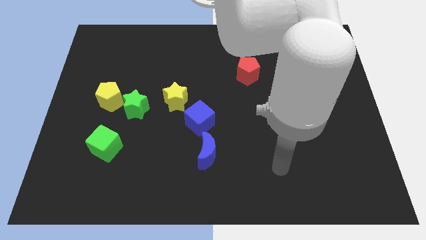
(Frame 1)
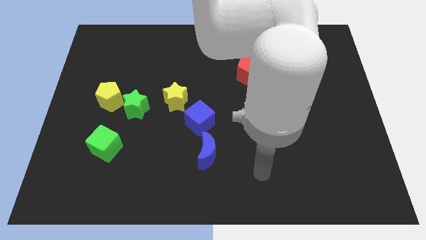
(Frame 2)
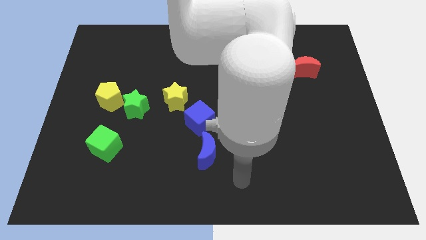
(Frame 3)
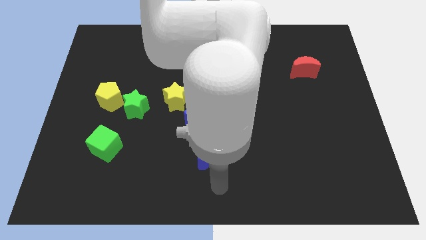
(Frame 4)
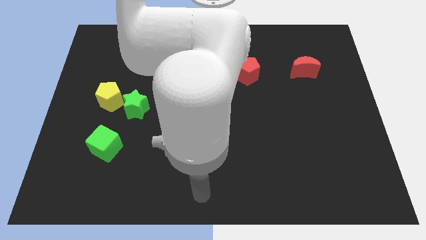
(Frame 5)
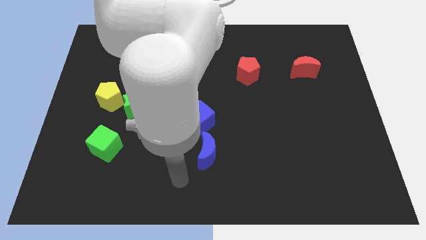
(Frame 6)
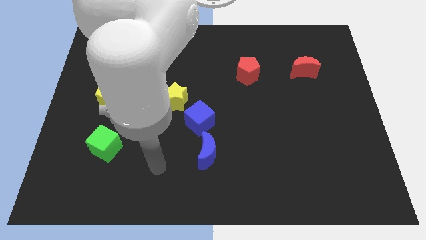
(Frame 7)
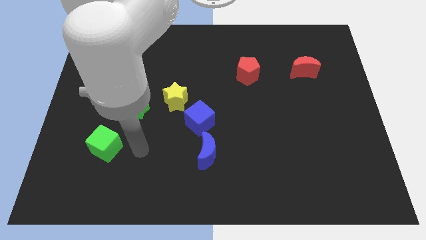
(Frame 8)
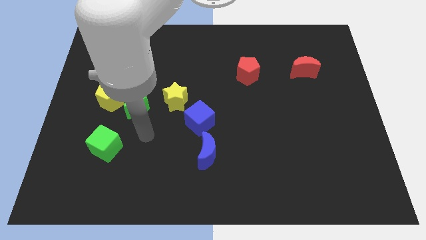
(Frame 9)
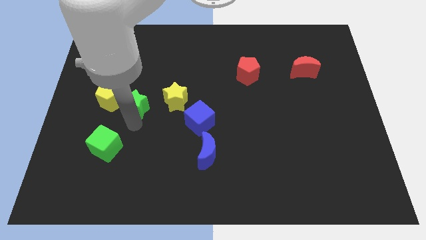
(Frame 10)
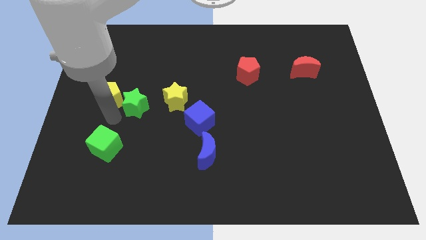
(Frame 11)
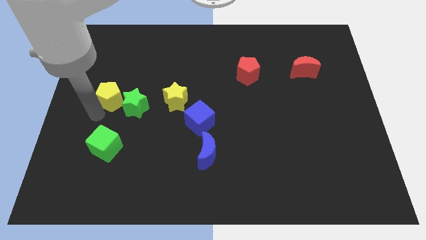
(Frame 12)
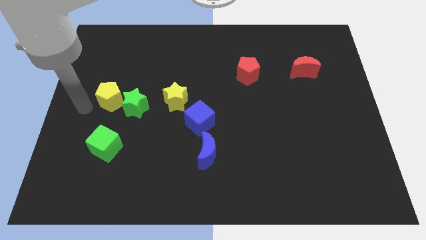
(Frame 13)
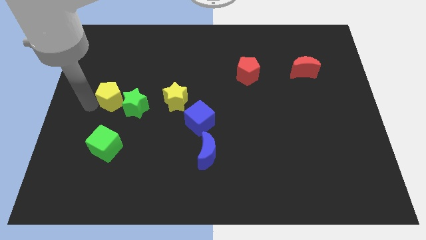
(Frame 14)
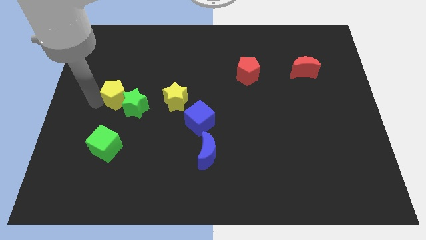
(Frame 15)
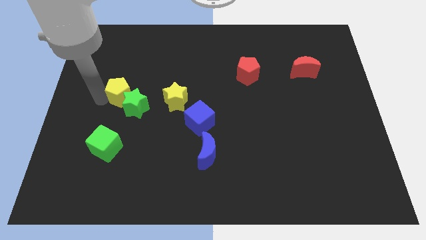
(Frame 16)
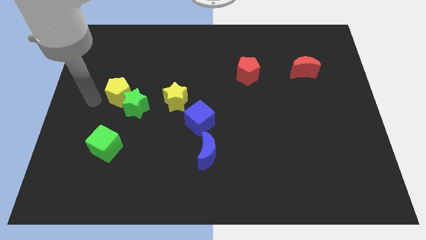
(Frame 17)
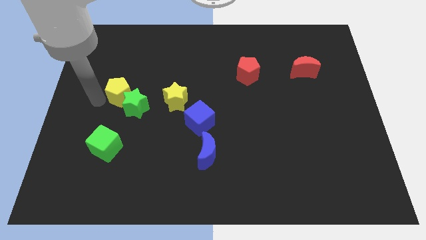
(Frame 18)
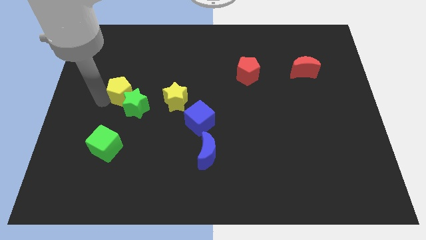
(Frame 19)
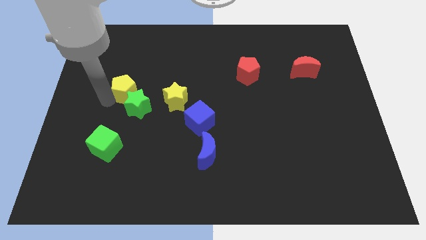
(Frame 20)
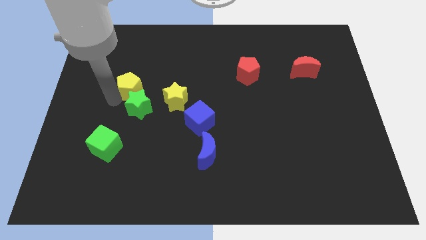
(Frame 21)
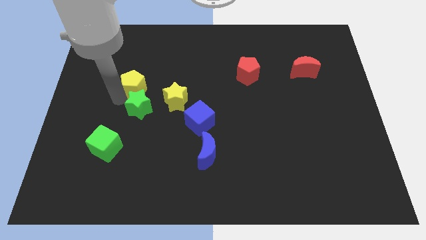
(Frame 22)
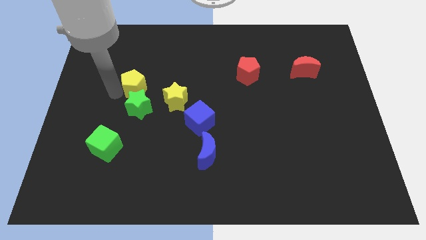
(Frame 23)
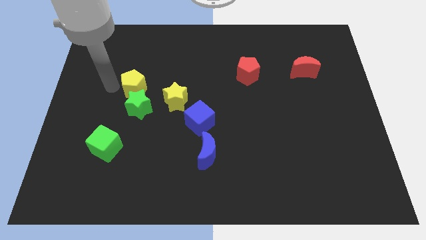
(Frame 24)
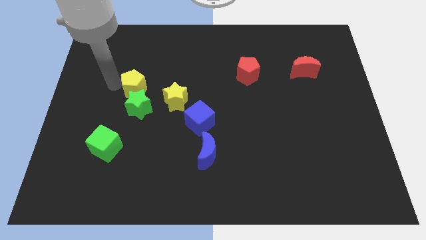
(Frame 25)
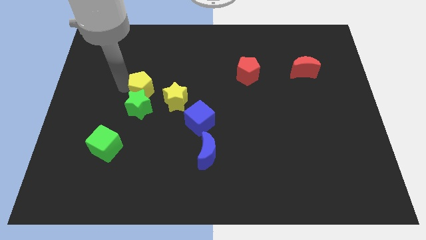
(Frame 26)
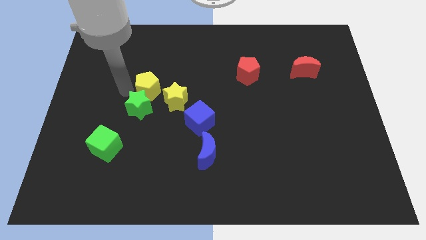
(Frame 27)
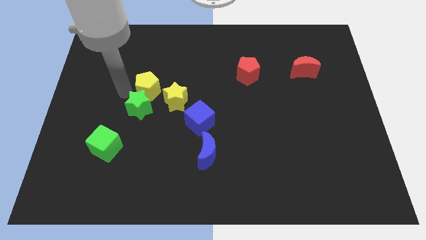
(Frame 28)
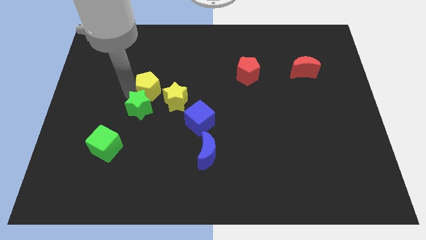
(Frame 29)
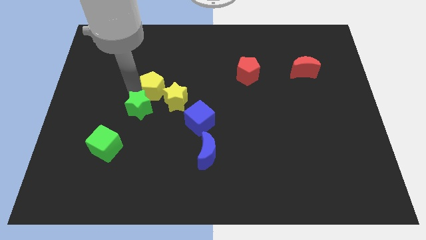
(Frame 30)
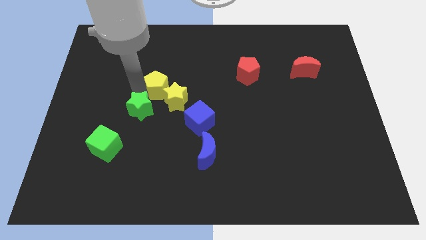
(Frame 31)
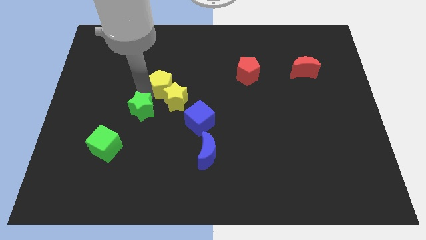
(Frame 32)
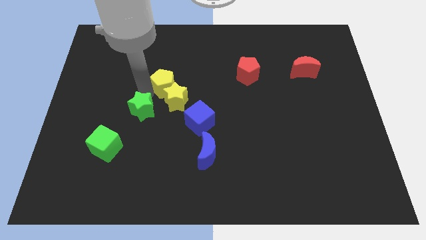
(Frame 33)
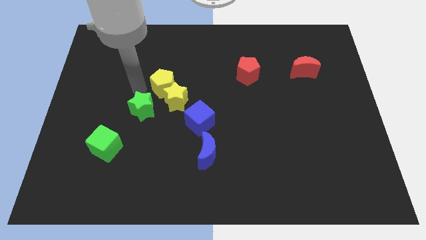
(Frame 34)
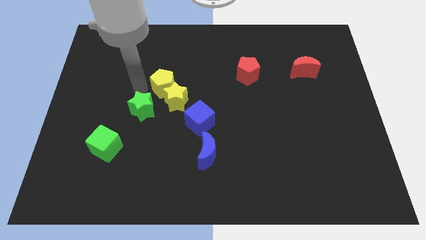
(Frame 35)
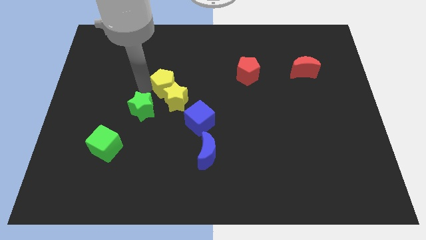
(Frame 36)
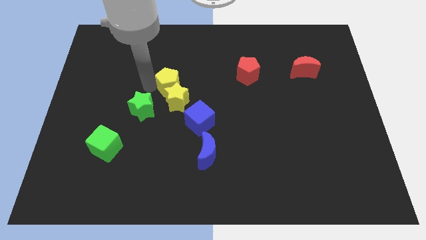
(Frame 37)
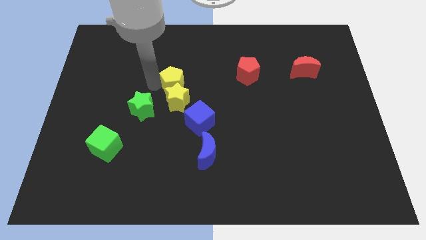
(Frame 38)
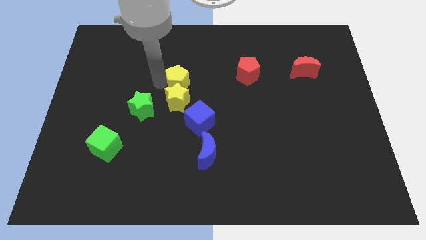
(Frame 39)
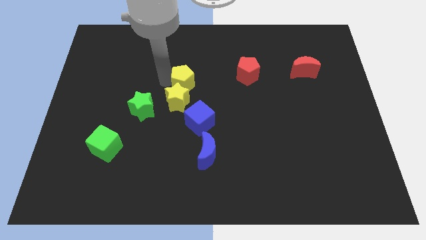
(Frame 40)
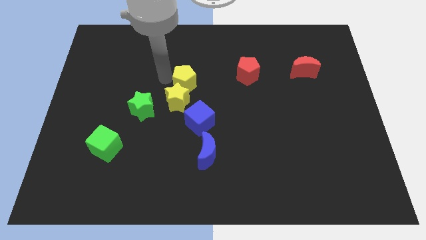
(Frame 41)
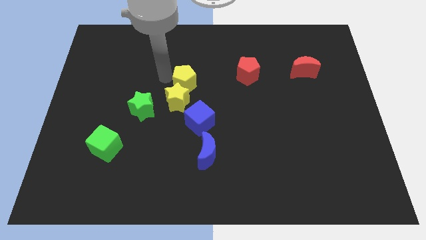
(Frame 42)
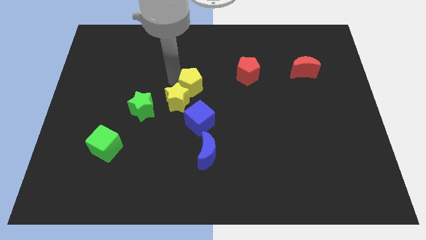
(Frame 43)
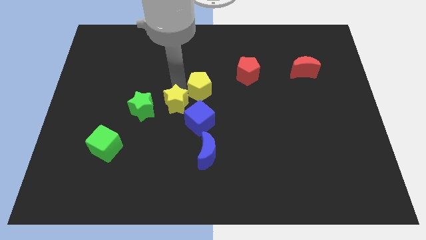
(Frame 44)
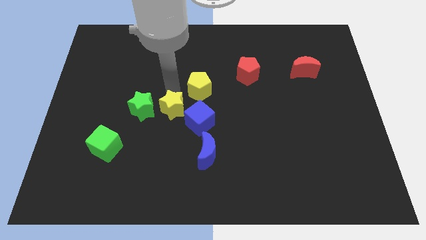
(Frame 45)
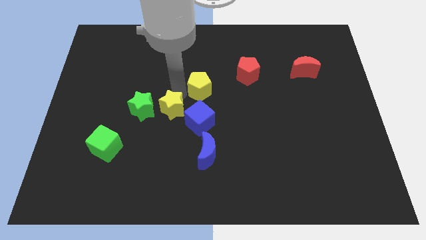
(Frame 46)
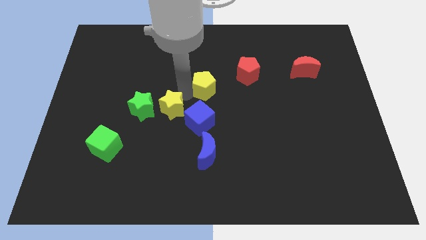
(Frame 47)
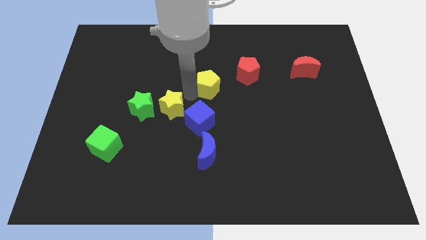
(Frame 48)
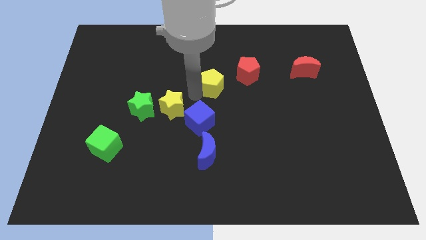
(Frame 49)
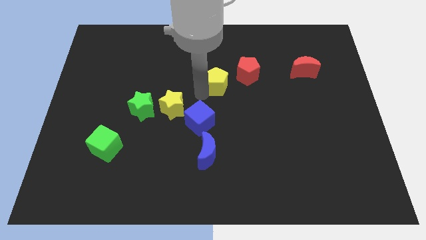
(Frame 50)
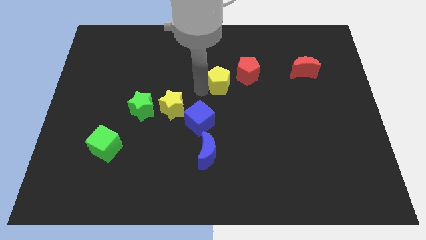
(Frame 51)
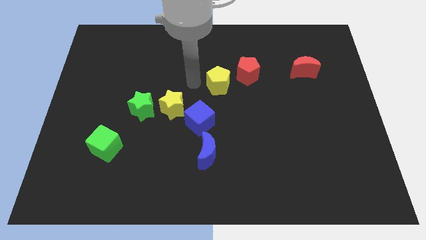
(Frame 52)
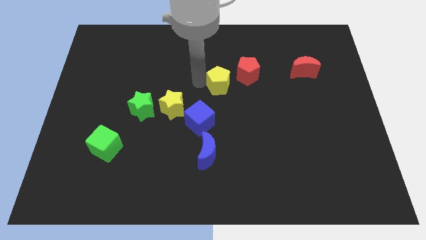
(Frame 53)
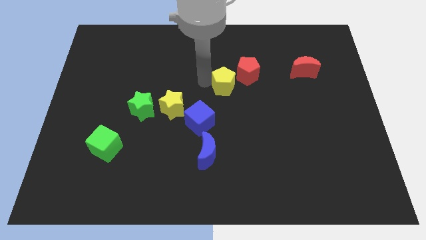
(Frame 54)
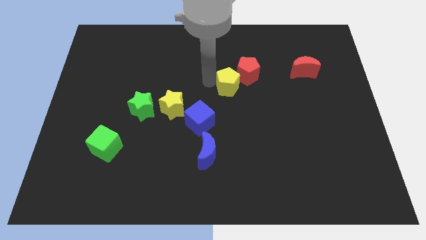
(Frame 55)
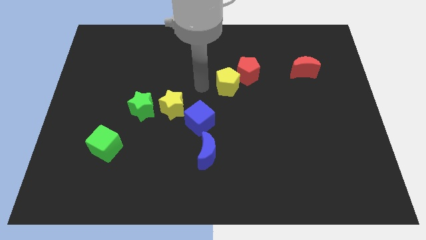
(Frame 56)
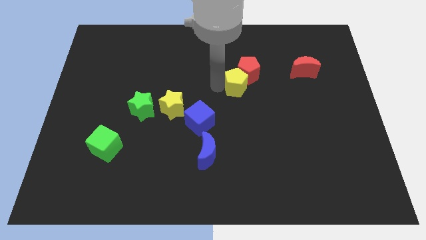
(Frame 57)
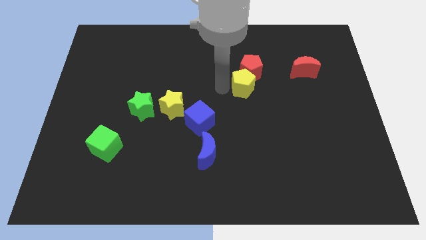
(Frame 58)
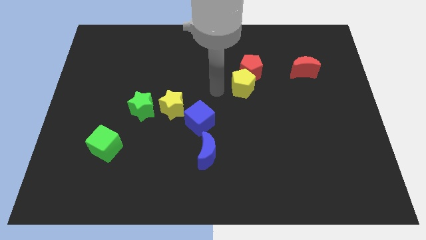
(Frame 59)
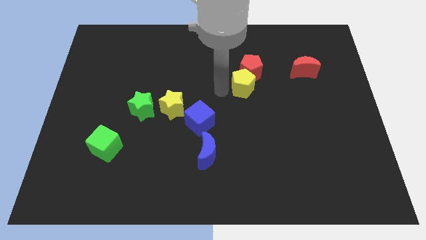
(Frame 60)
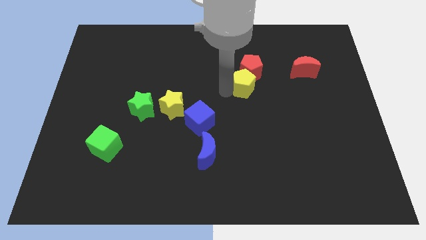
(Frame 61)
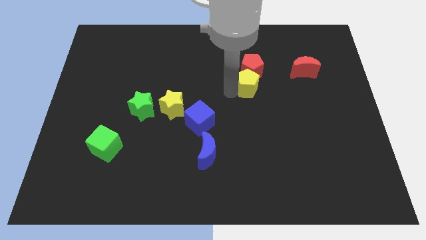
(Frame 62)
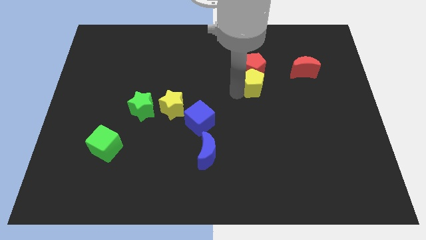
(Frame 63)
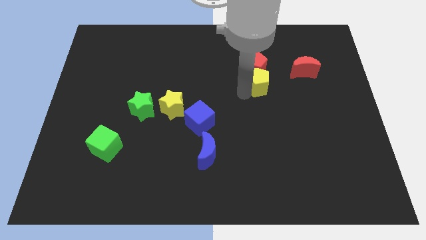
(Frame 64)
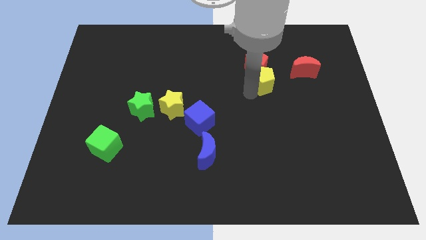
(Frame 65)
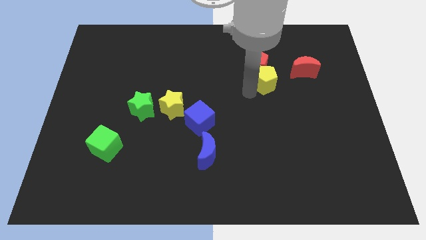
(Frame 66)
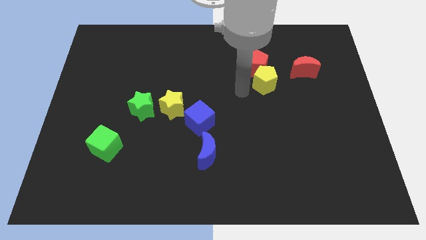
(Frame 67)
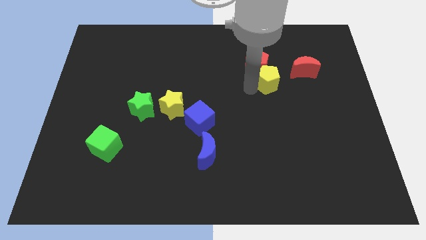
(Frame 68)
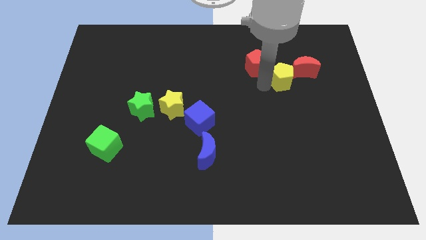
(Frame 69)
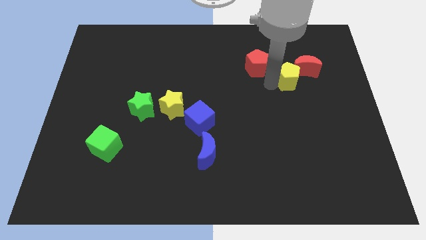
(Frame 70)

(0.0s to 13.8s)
slide the yellow pentagon close to the red moon
